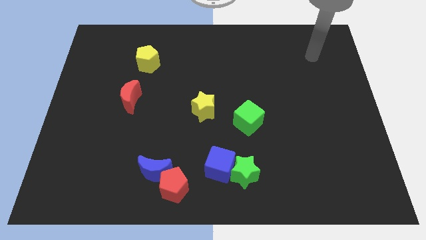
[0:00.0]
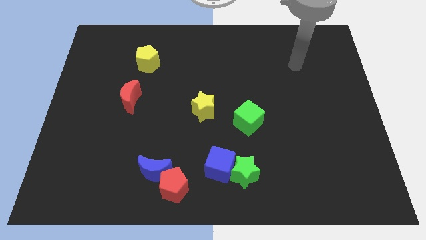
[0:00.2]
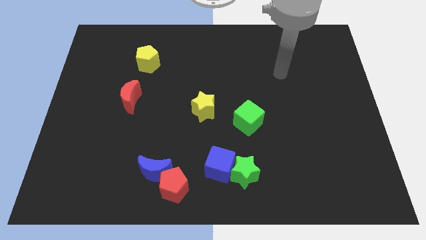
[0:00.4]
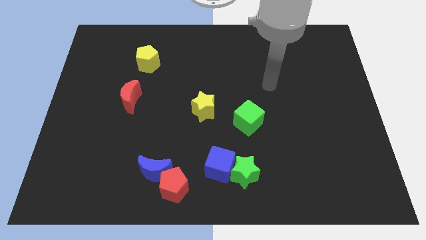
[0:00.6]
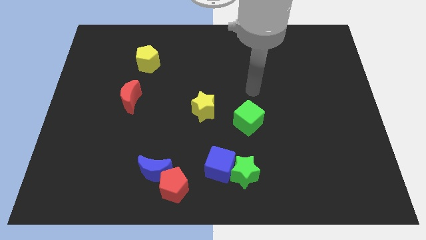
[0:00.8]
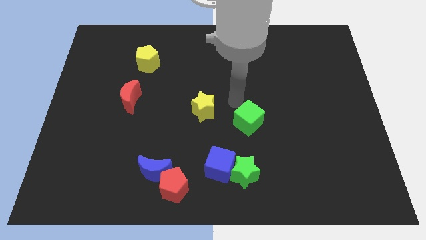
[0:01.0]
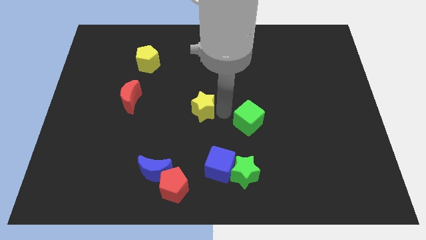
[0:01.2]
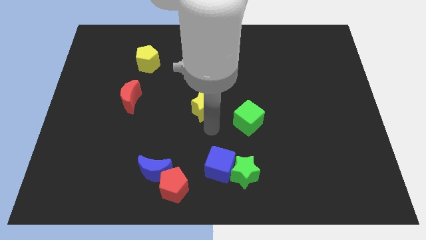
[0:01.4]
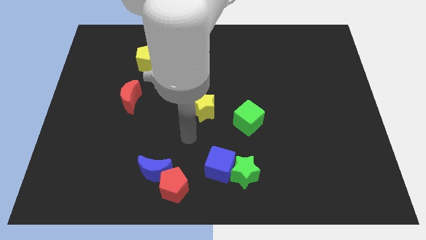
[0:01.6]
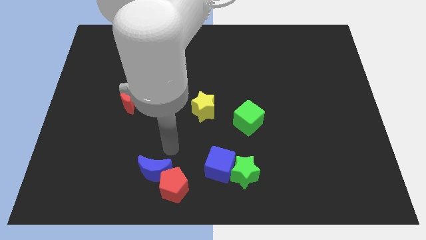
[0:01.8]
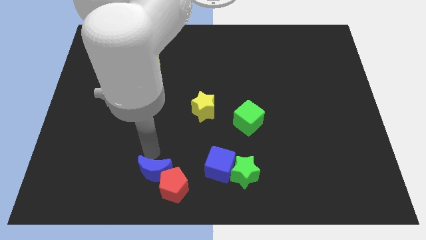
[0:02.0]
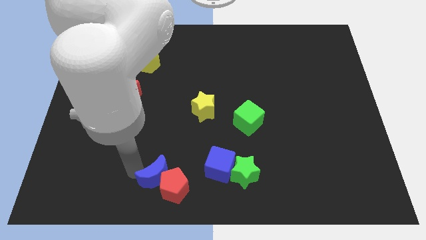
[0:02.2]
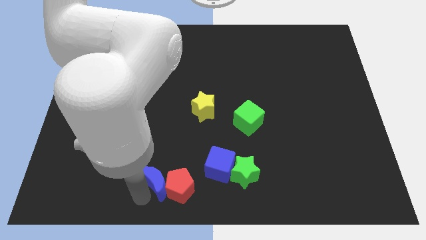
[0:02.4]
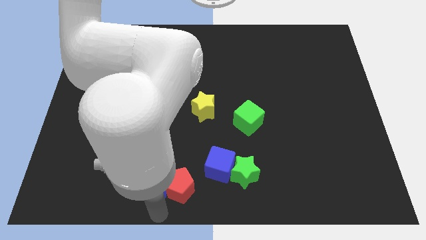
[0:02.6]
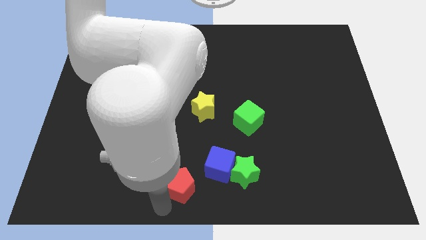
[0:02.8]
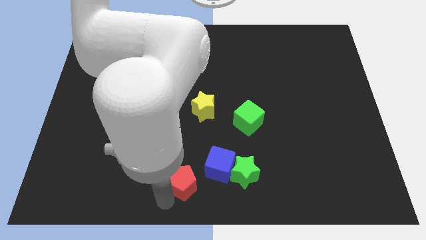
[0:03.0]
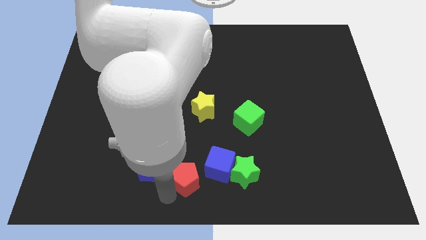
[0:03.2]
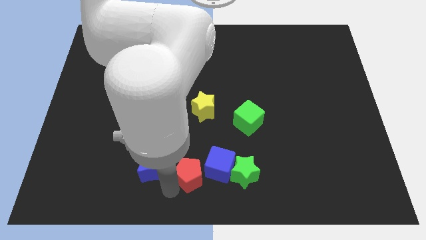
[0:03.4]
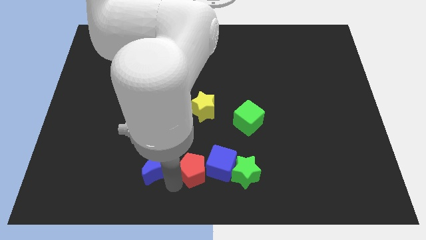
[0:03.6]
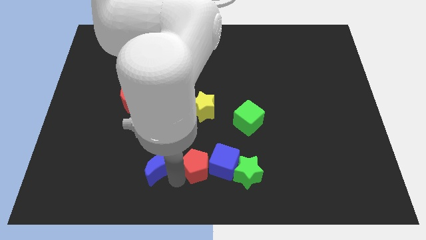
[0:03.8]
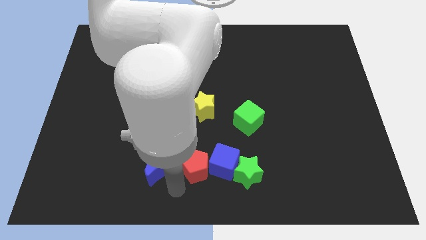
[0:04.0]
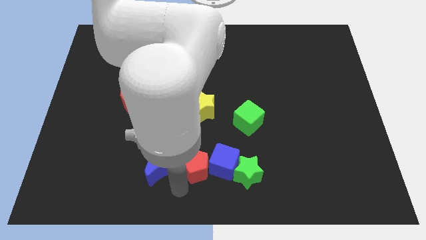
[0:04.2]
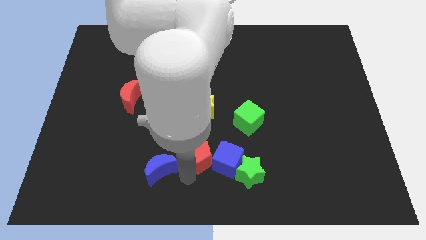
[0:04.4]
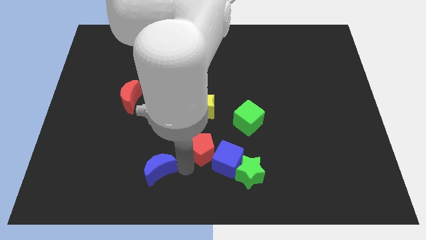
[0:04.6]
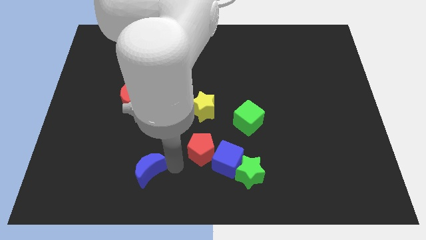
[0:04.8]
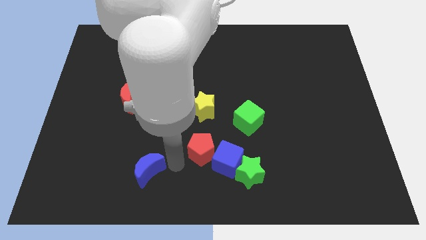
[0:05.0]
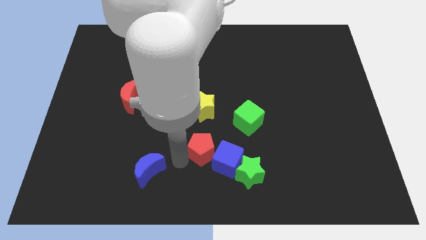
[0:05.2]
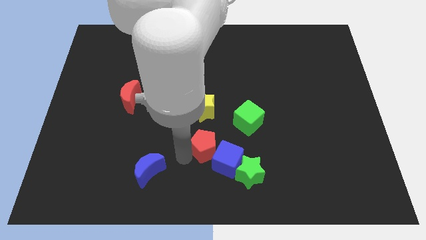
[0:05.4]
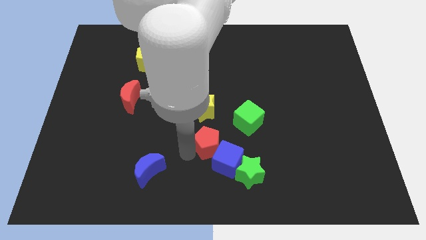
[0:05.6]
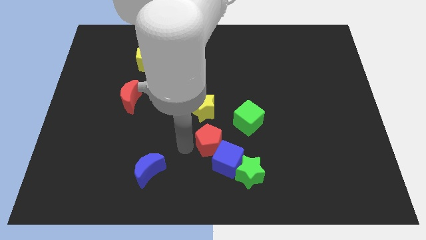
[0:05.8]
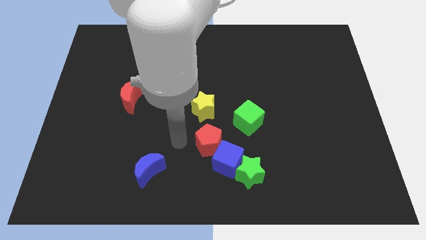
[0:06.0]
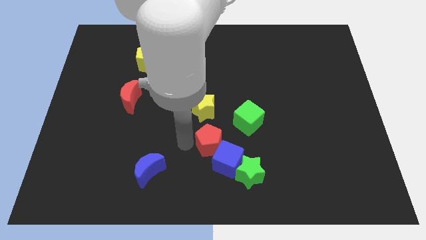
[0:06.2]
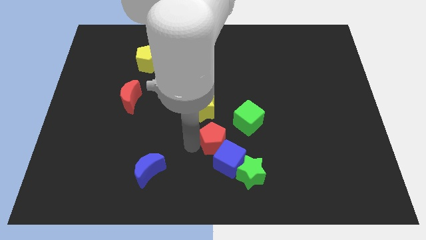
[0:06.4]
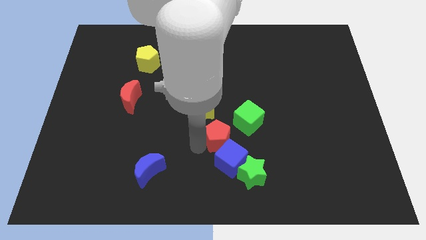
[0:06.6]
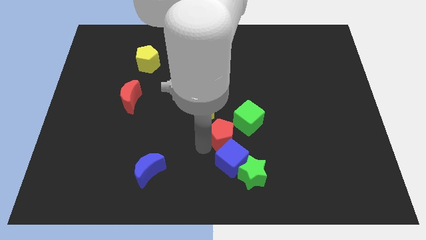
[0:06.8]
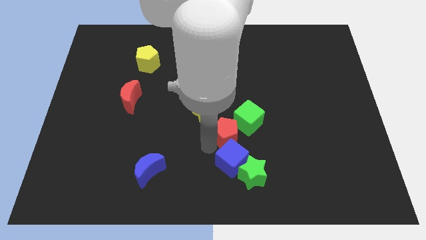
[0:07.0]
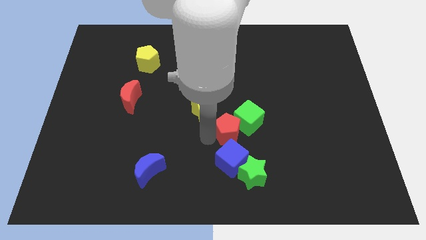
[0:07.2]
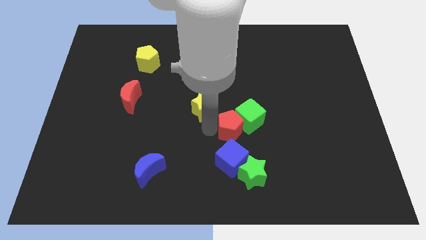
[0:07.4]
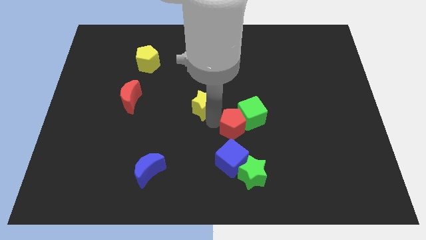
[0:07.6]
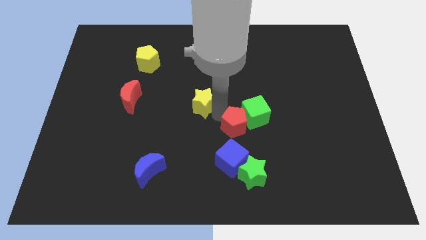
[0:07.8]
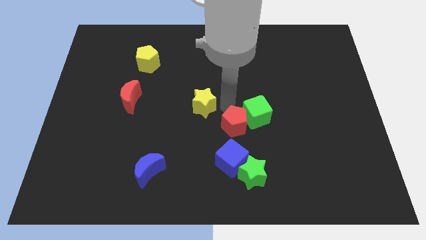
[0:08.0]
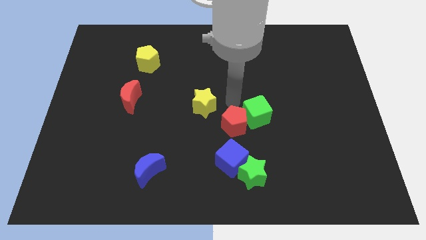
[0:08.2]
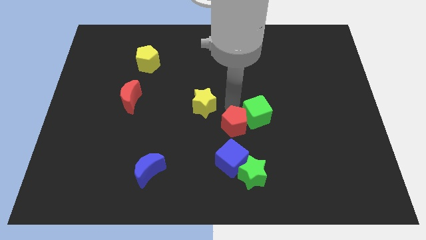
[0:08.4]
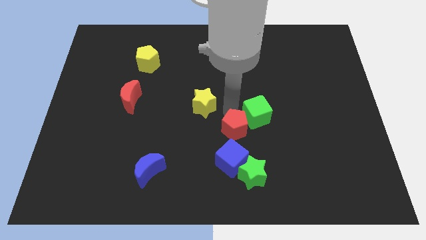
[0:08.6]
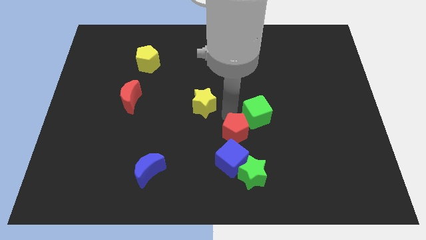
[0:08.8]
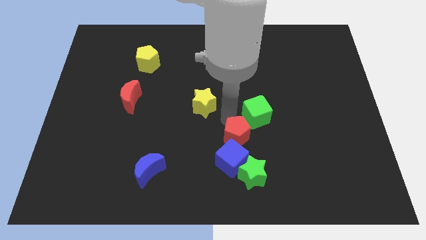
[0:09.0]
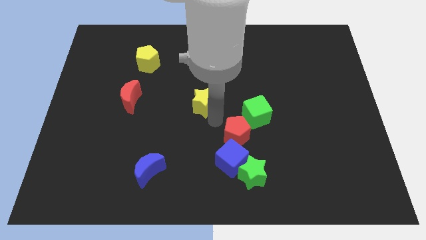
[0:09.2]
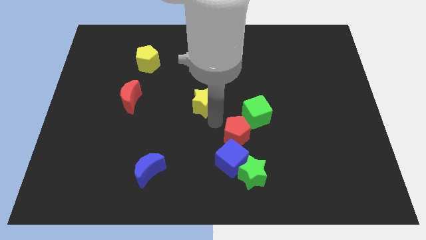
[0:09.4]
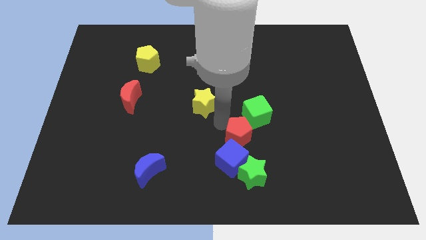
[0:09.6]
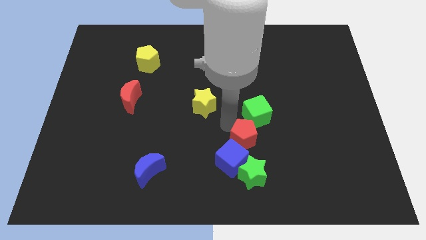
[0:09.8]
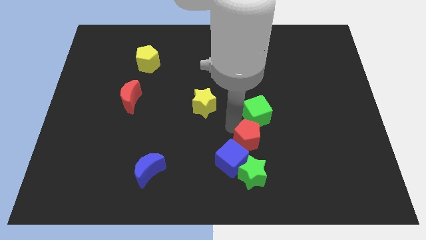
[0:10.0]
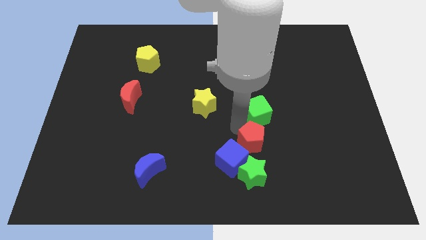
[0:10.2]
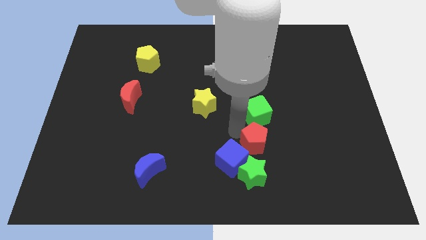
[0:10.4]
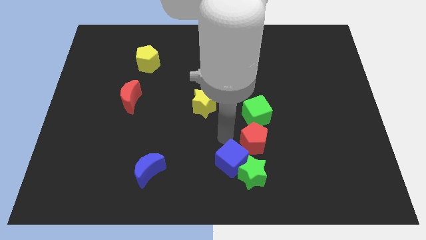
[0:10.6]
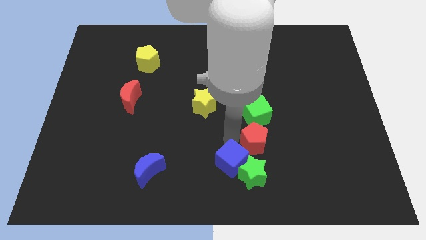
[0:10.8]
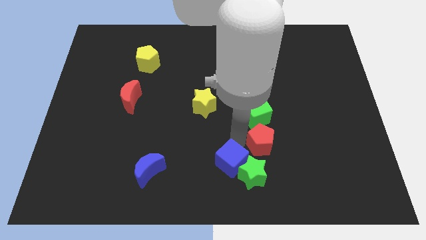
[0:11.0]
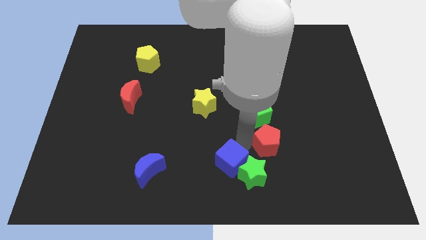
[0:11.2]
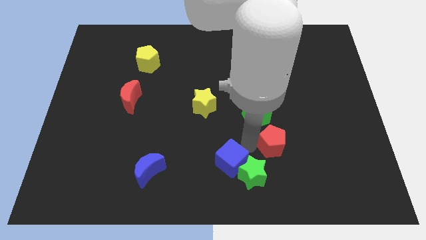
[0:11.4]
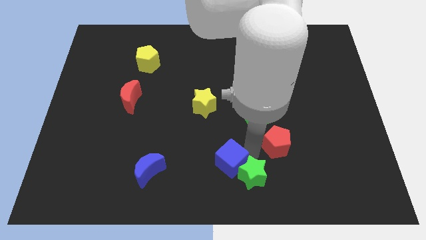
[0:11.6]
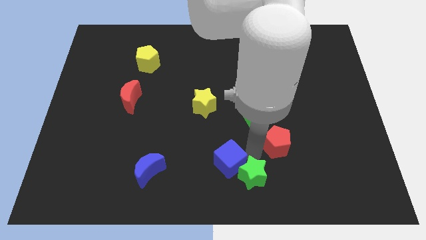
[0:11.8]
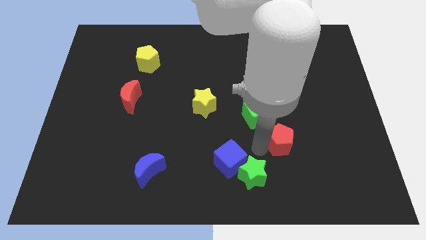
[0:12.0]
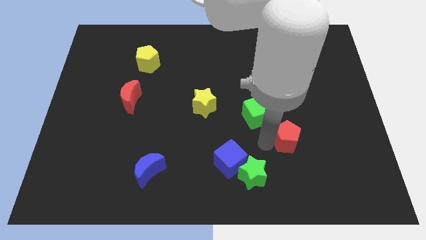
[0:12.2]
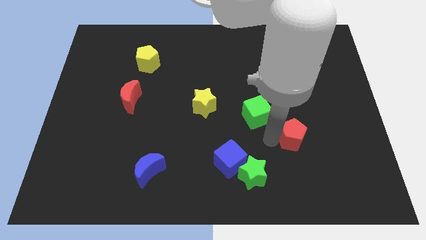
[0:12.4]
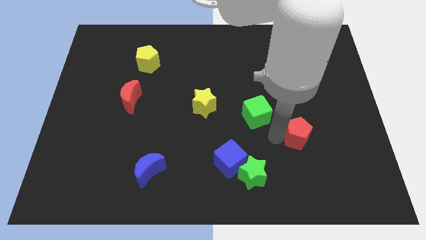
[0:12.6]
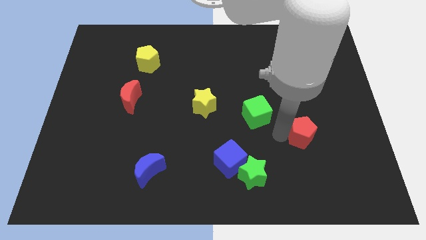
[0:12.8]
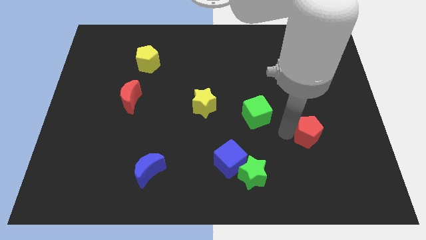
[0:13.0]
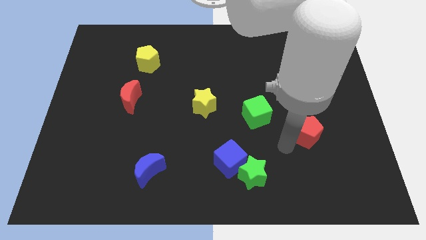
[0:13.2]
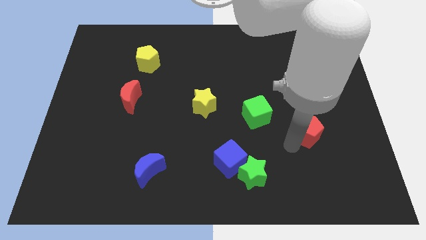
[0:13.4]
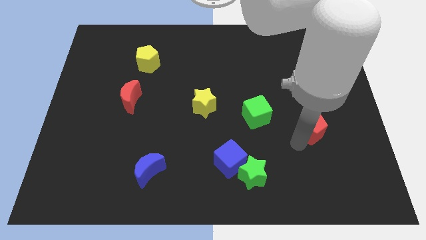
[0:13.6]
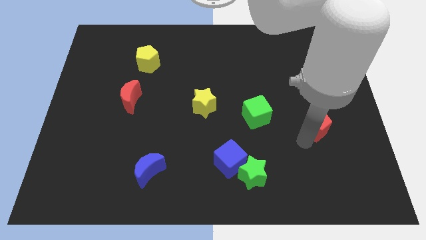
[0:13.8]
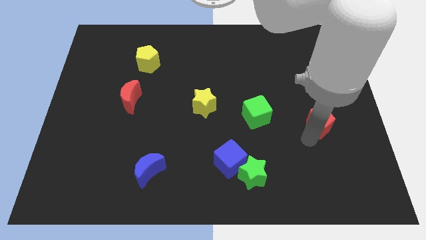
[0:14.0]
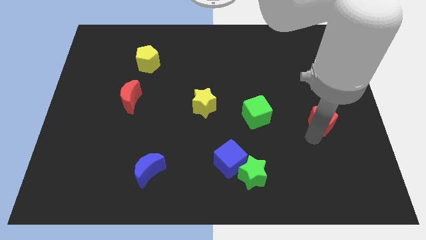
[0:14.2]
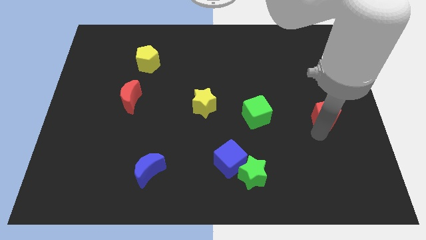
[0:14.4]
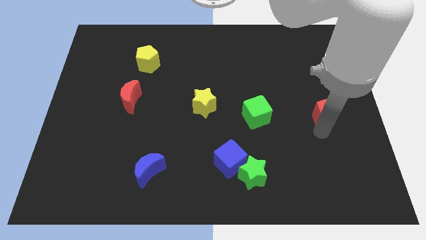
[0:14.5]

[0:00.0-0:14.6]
move the red pentagon to the center right
